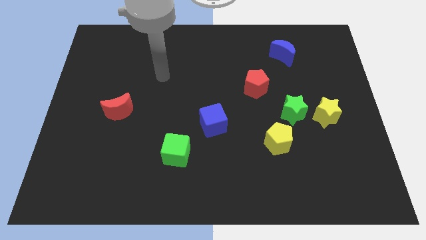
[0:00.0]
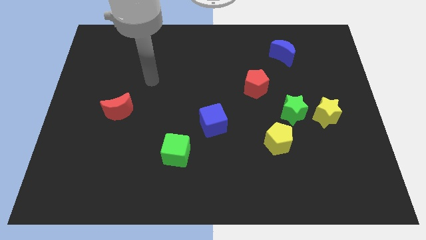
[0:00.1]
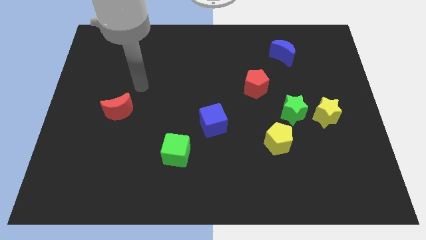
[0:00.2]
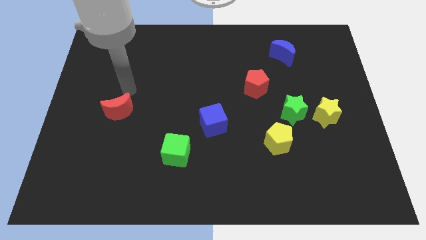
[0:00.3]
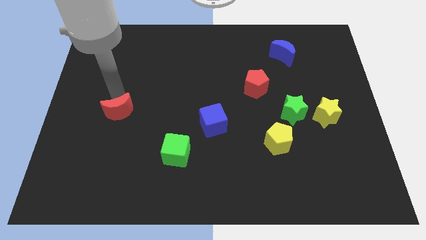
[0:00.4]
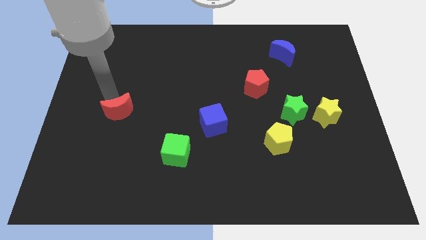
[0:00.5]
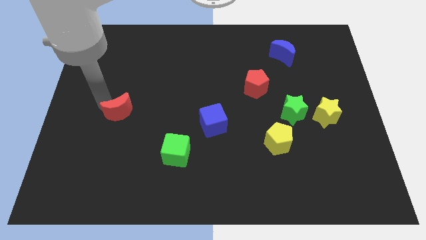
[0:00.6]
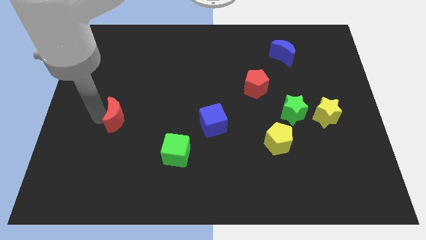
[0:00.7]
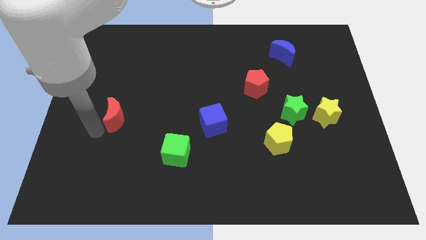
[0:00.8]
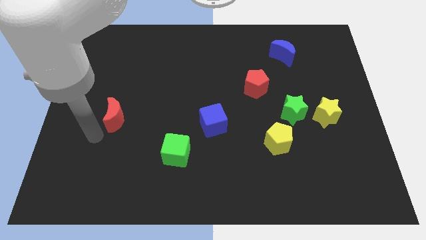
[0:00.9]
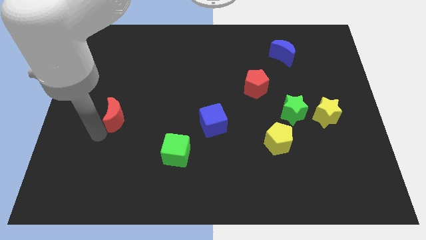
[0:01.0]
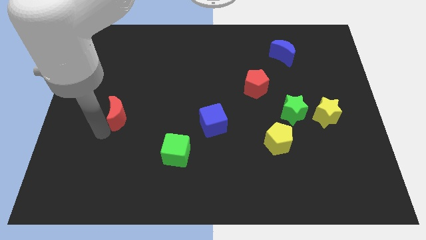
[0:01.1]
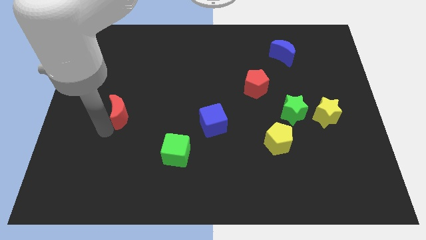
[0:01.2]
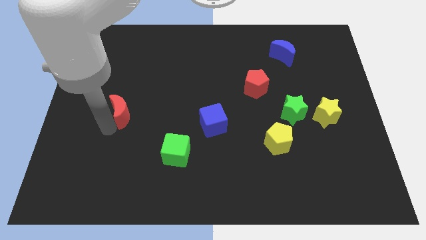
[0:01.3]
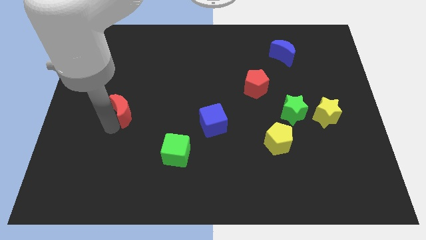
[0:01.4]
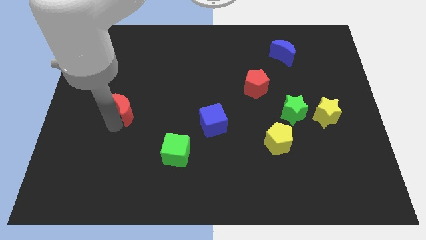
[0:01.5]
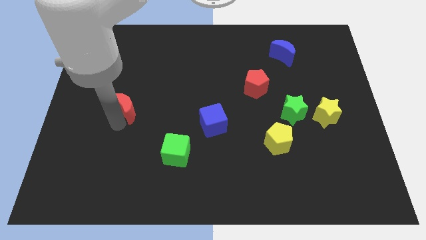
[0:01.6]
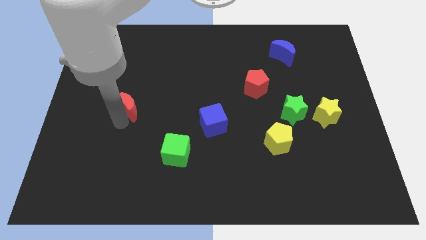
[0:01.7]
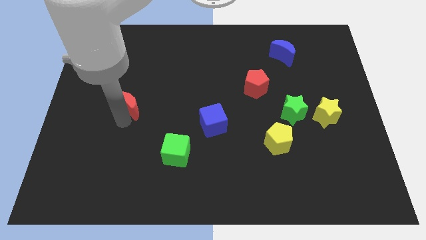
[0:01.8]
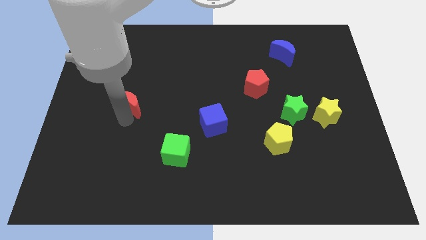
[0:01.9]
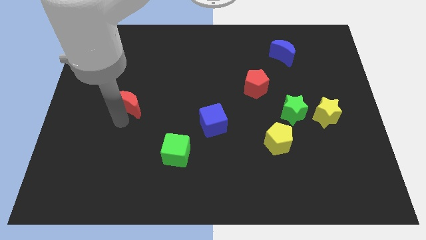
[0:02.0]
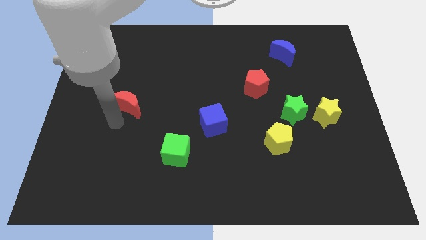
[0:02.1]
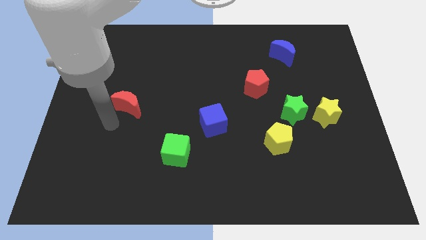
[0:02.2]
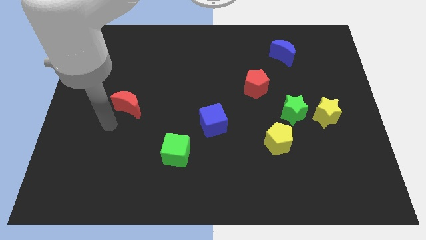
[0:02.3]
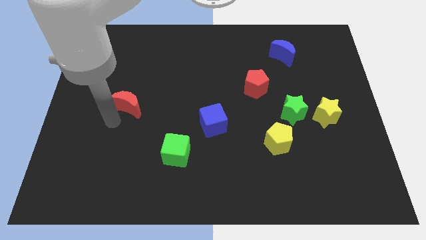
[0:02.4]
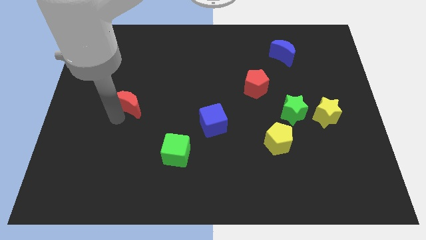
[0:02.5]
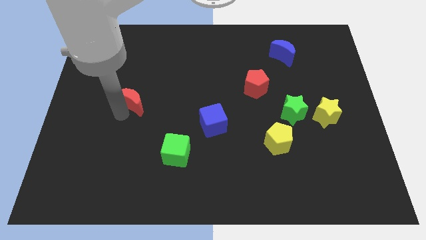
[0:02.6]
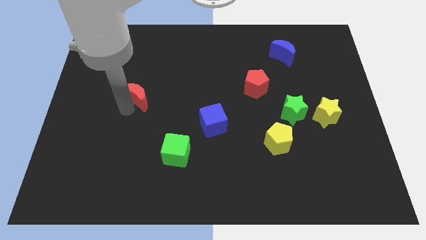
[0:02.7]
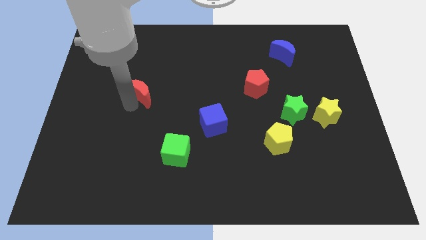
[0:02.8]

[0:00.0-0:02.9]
push the red moon diagonally up and to the right somewhat

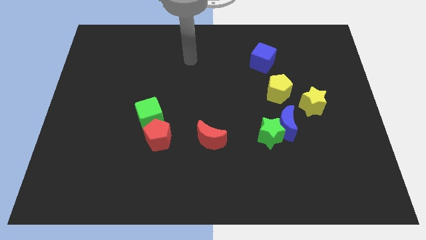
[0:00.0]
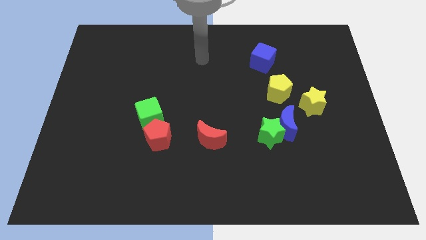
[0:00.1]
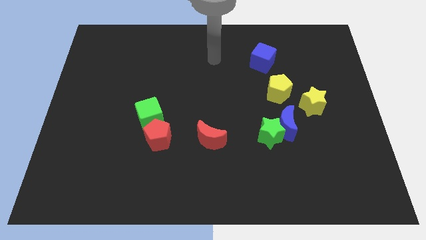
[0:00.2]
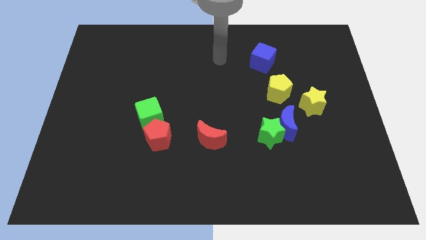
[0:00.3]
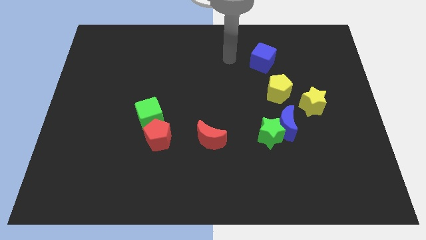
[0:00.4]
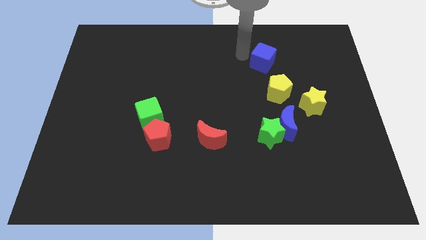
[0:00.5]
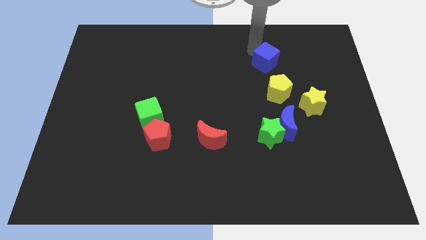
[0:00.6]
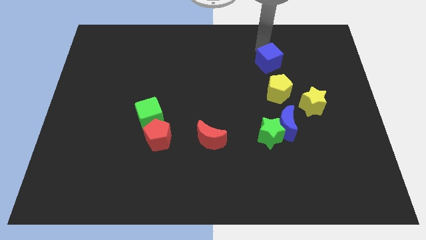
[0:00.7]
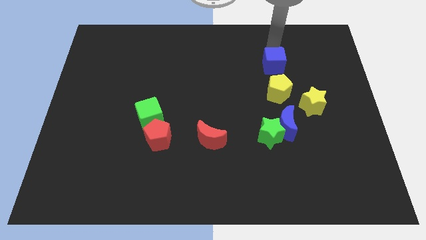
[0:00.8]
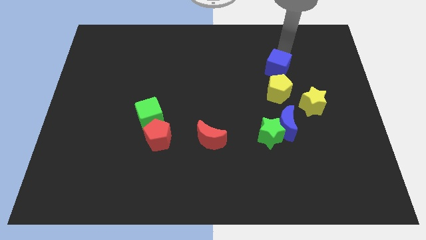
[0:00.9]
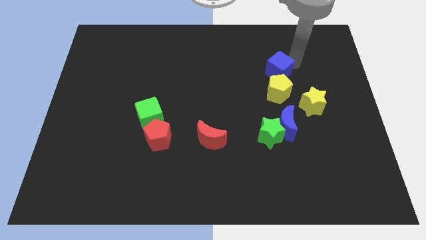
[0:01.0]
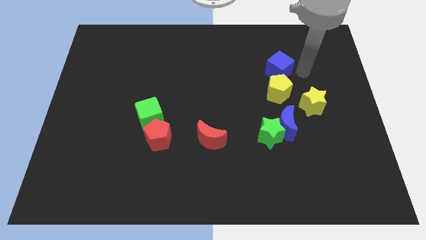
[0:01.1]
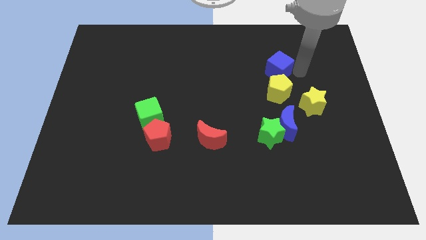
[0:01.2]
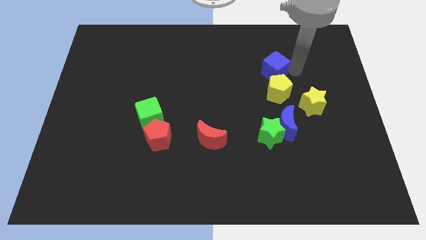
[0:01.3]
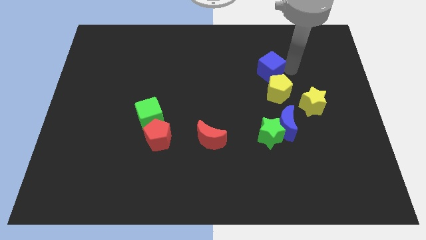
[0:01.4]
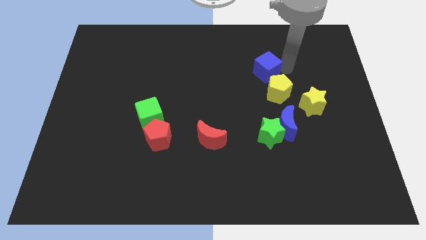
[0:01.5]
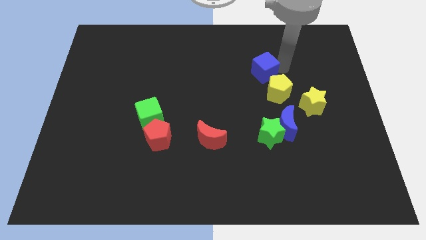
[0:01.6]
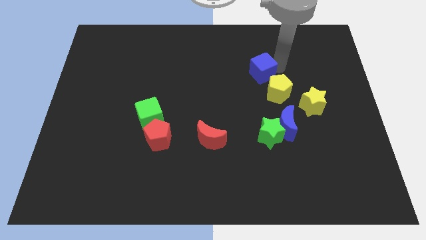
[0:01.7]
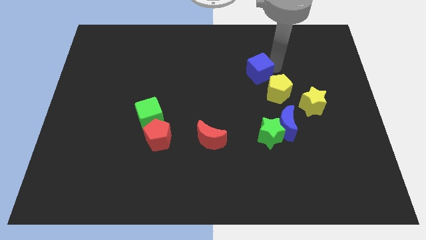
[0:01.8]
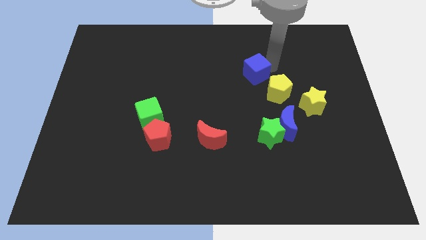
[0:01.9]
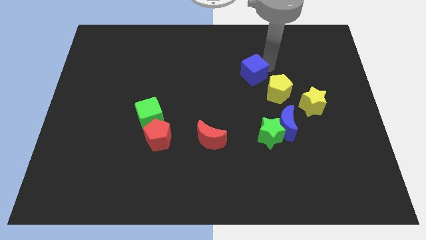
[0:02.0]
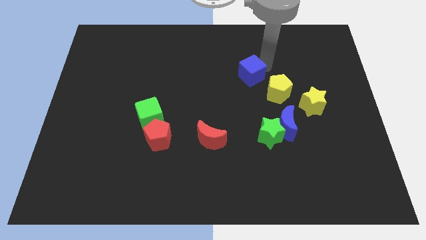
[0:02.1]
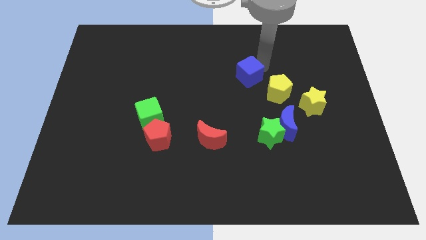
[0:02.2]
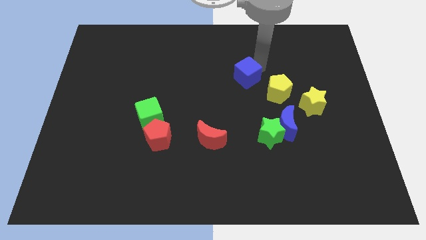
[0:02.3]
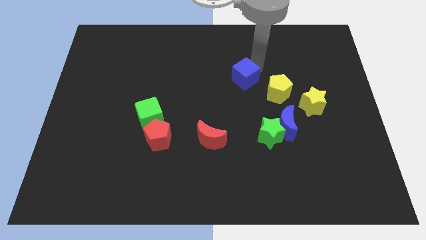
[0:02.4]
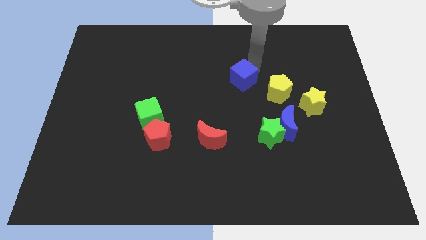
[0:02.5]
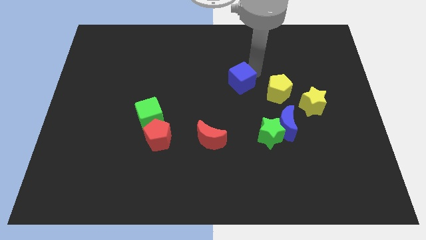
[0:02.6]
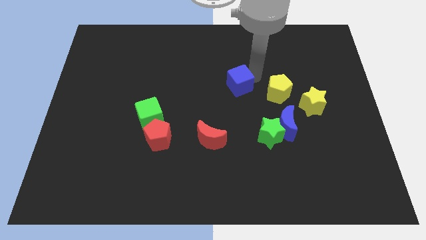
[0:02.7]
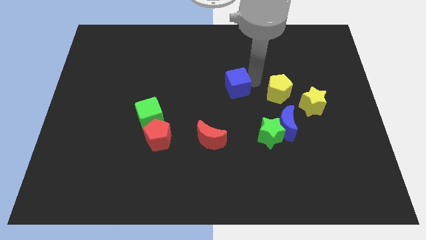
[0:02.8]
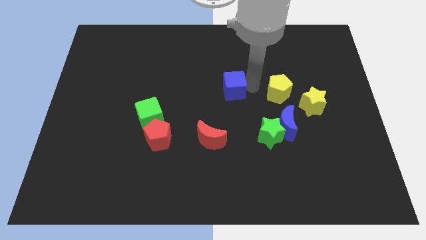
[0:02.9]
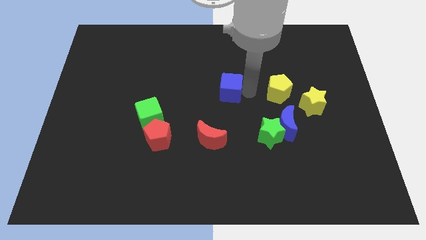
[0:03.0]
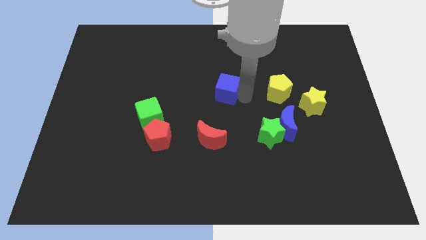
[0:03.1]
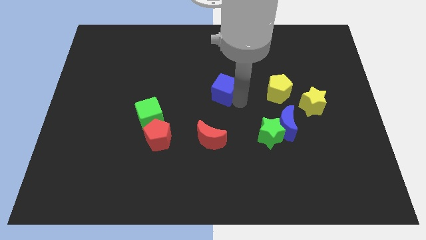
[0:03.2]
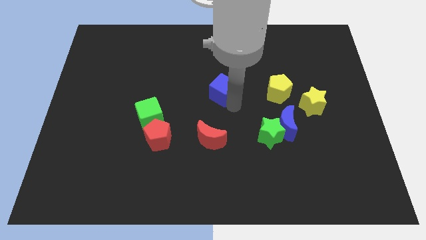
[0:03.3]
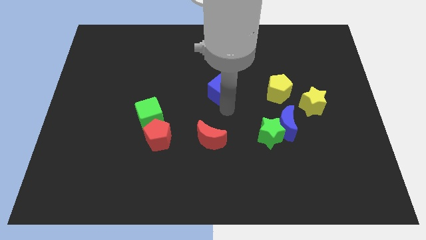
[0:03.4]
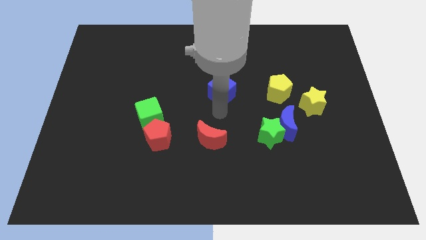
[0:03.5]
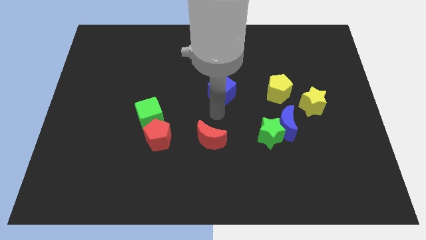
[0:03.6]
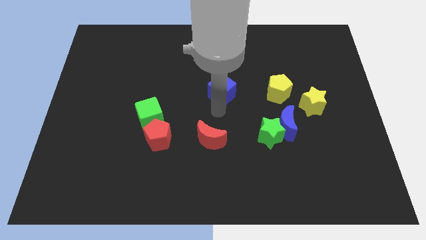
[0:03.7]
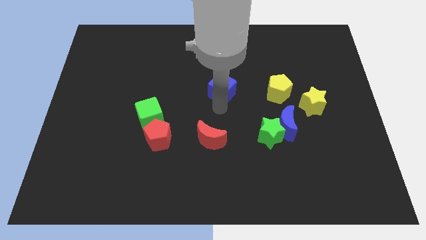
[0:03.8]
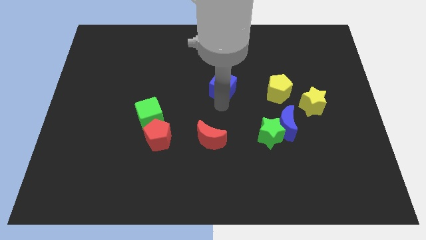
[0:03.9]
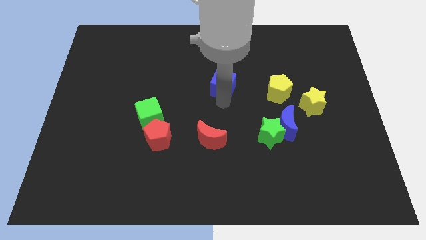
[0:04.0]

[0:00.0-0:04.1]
push the blue cube to the left somewhat

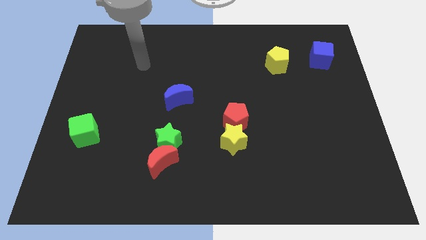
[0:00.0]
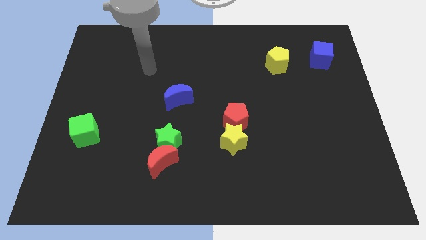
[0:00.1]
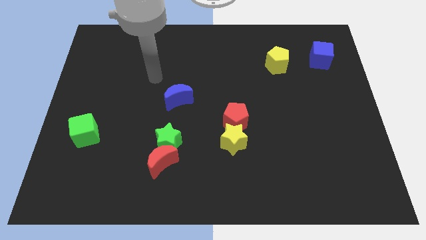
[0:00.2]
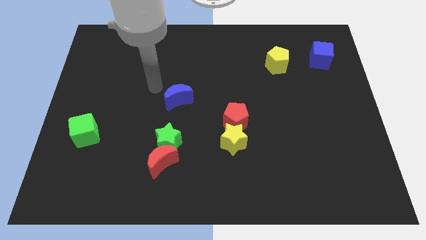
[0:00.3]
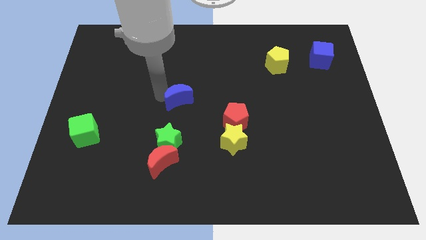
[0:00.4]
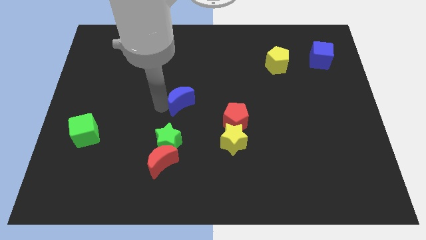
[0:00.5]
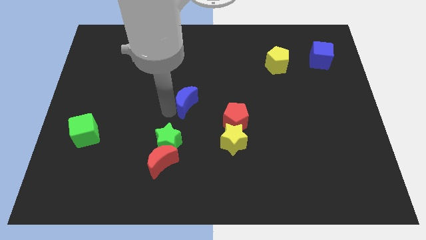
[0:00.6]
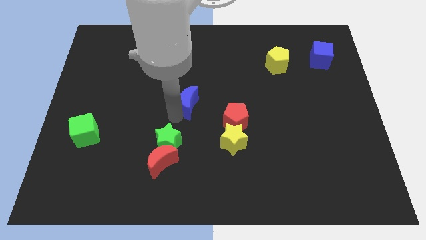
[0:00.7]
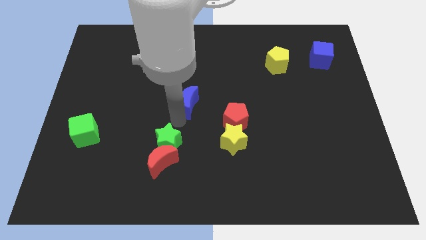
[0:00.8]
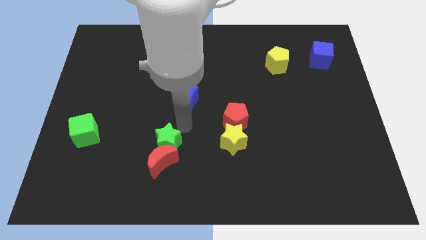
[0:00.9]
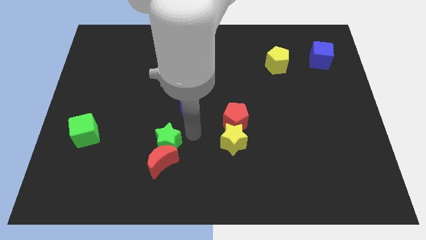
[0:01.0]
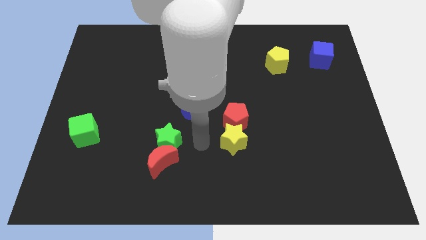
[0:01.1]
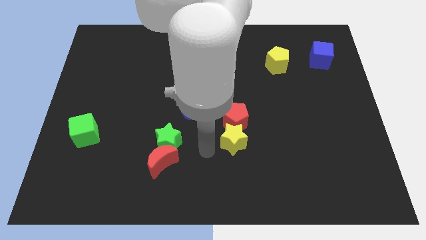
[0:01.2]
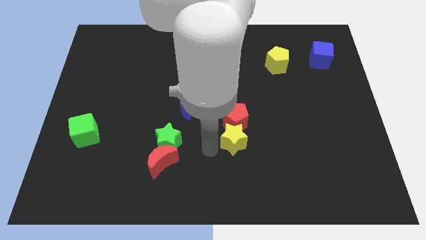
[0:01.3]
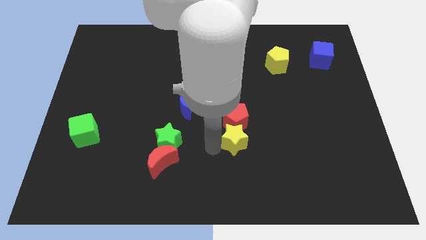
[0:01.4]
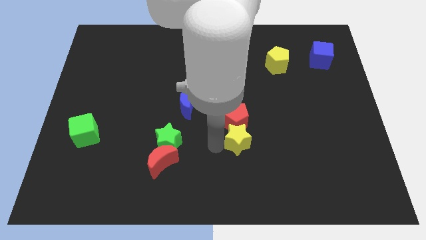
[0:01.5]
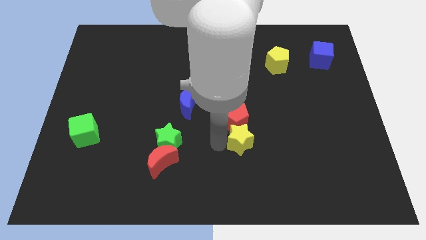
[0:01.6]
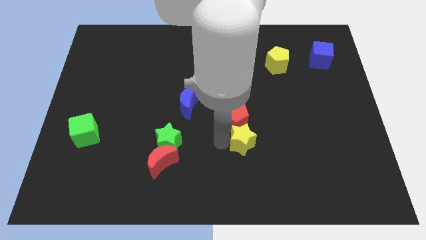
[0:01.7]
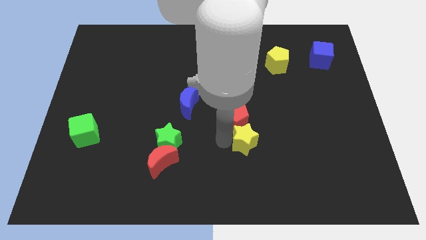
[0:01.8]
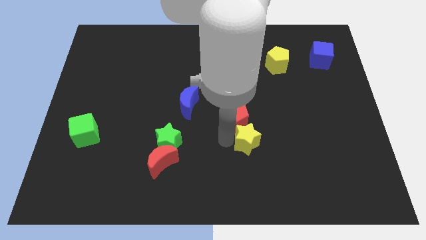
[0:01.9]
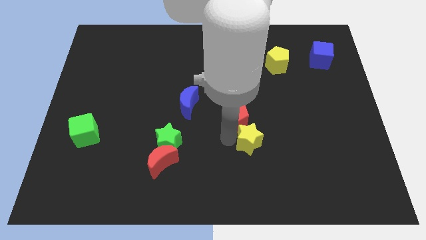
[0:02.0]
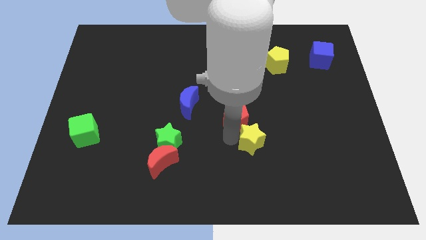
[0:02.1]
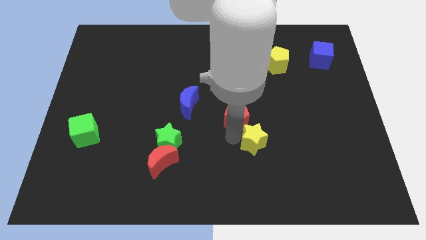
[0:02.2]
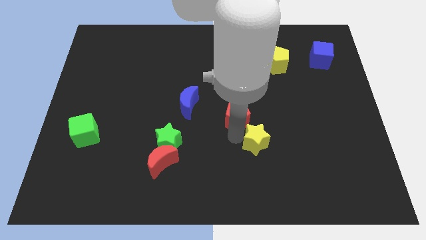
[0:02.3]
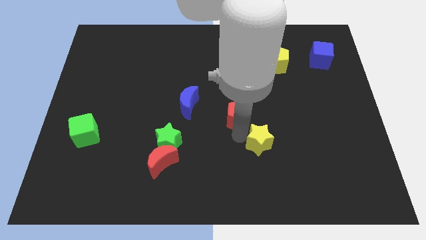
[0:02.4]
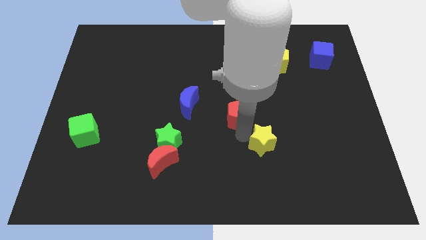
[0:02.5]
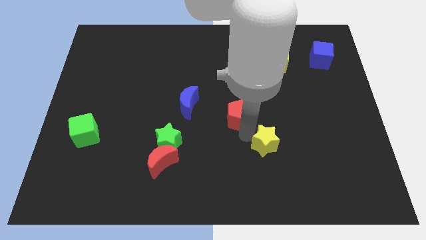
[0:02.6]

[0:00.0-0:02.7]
slightly move the yellow star right
